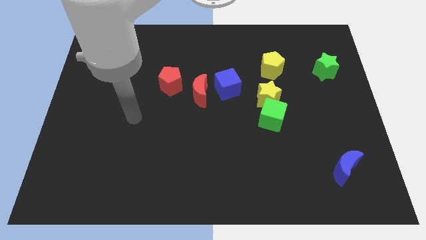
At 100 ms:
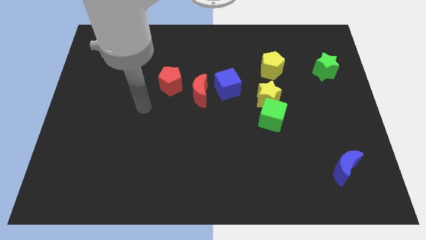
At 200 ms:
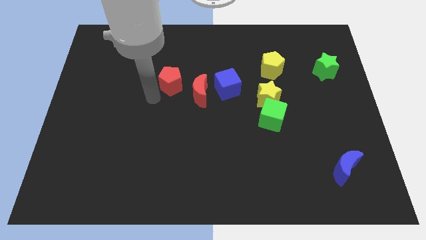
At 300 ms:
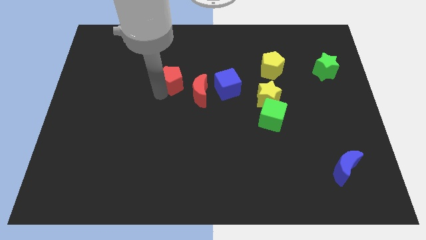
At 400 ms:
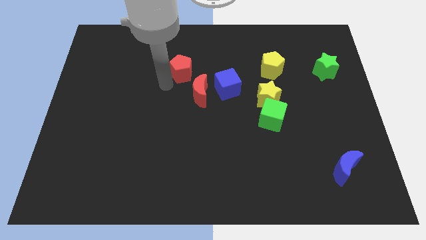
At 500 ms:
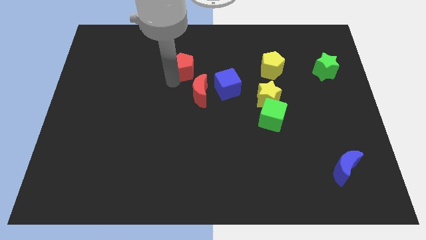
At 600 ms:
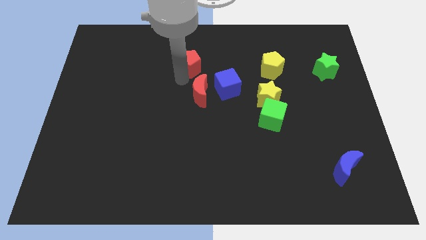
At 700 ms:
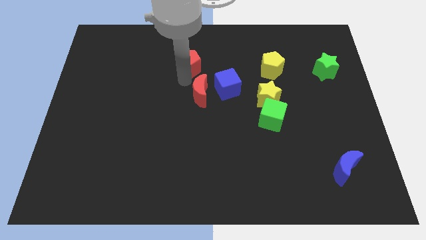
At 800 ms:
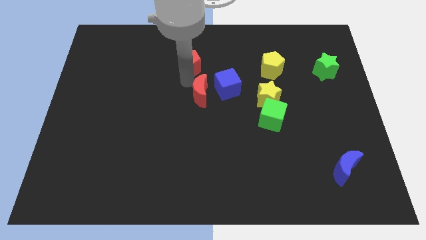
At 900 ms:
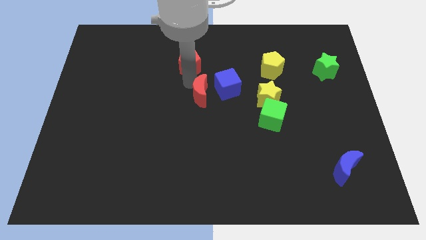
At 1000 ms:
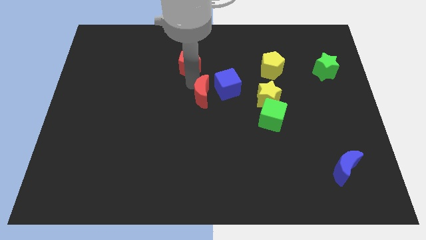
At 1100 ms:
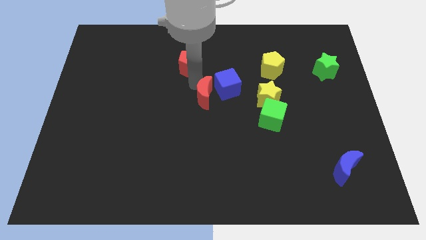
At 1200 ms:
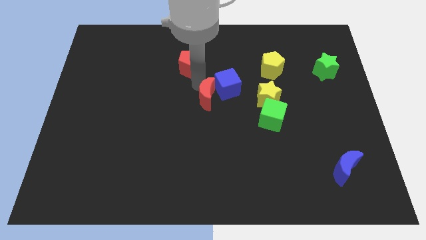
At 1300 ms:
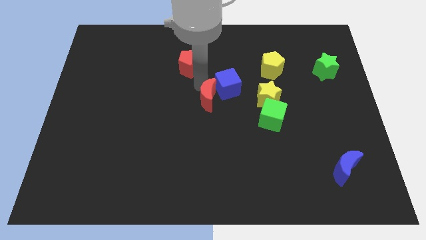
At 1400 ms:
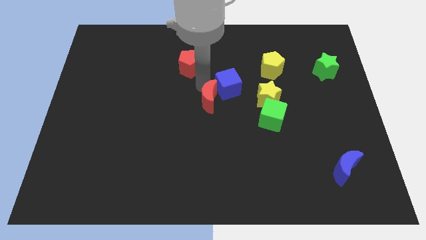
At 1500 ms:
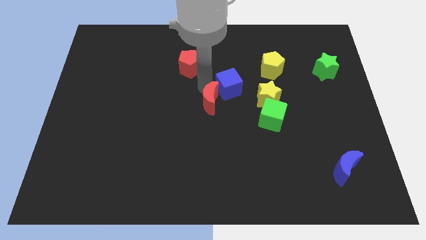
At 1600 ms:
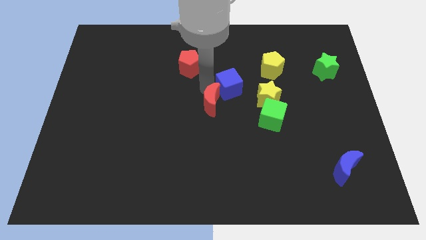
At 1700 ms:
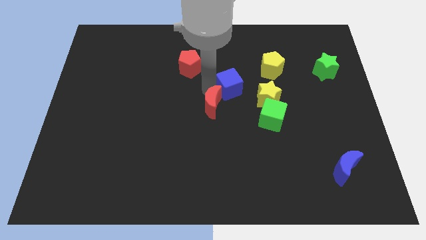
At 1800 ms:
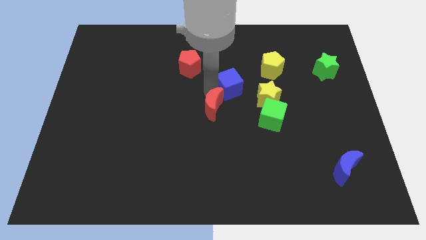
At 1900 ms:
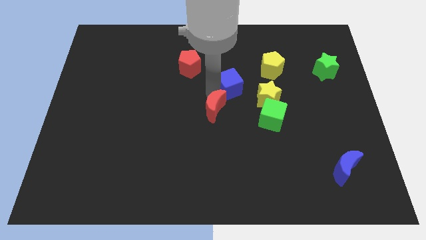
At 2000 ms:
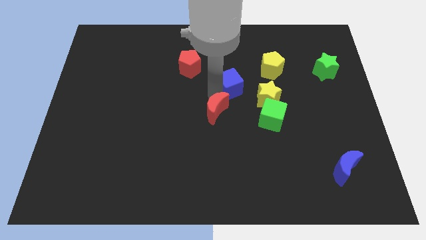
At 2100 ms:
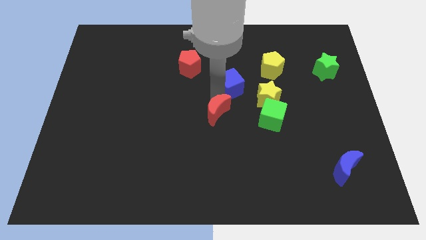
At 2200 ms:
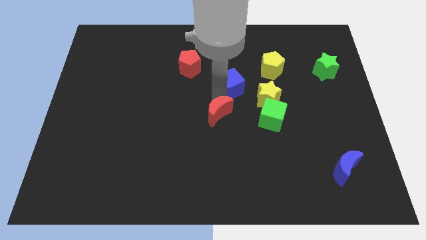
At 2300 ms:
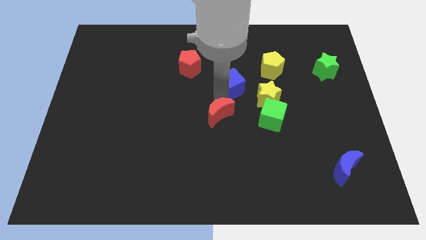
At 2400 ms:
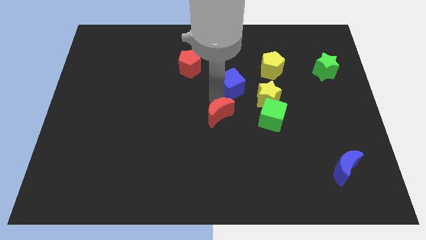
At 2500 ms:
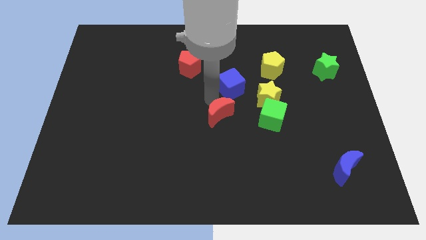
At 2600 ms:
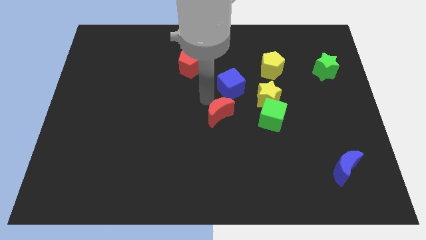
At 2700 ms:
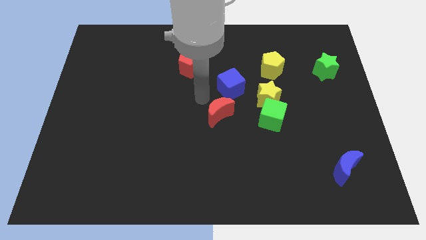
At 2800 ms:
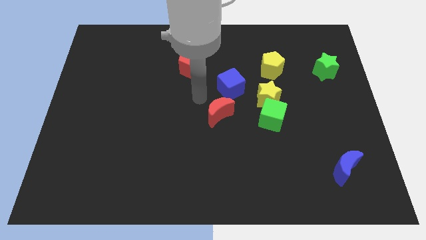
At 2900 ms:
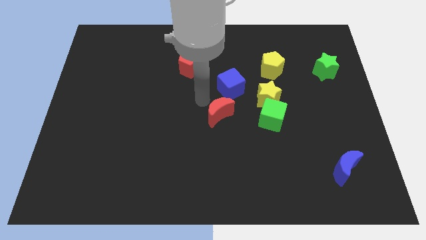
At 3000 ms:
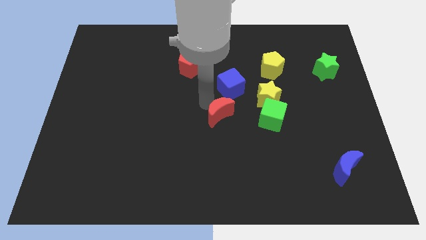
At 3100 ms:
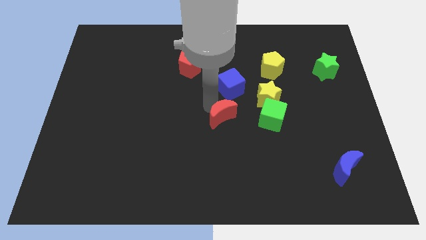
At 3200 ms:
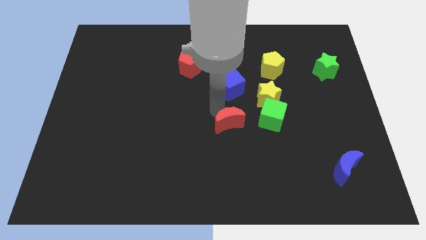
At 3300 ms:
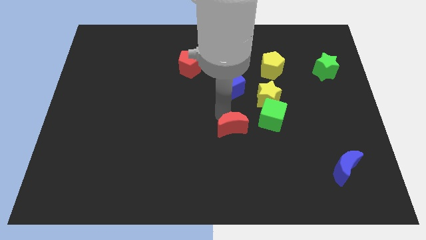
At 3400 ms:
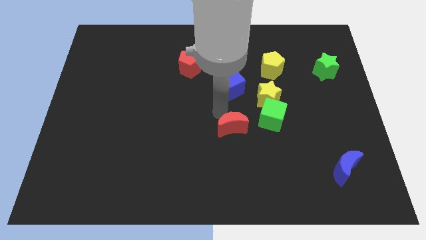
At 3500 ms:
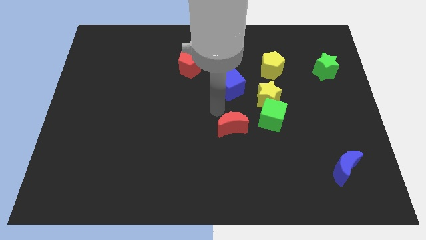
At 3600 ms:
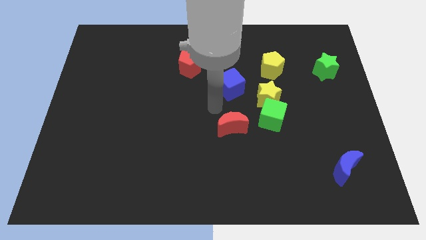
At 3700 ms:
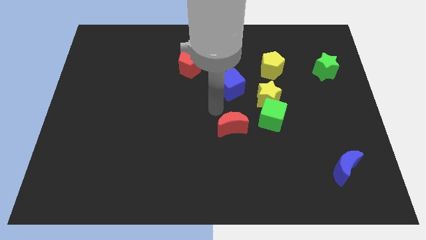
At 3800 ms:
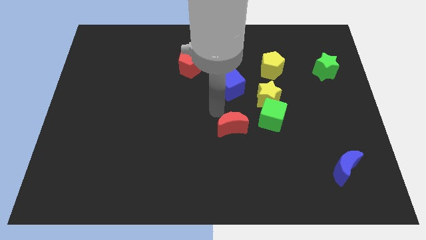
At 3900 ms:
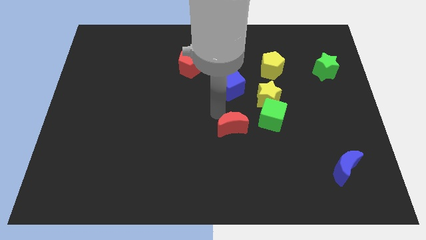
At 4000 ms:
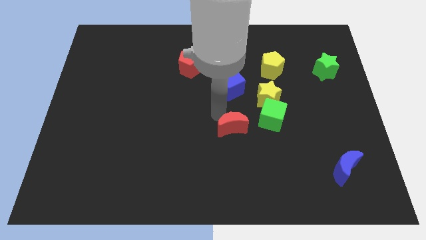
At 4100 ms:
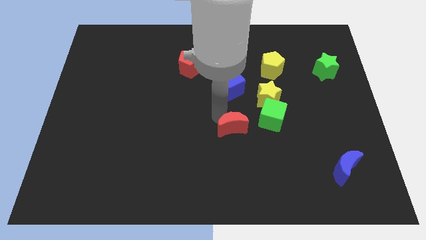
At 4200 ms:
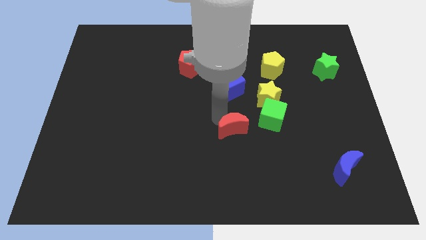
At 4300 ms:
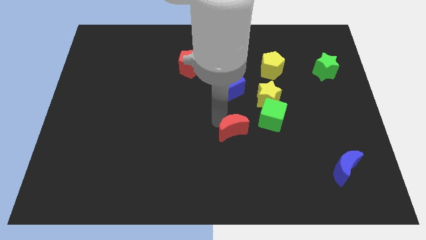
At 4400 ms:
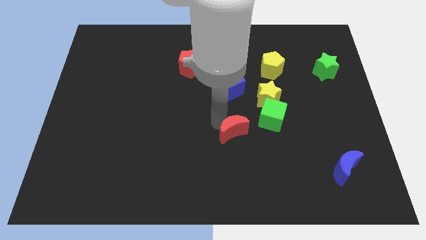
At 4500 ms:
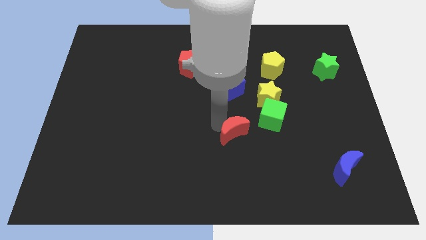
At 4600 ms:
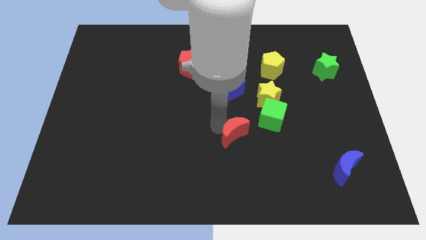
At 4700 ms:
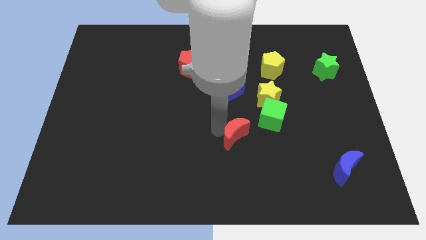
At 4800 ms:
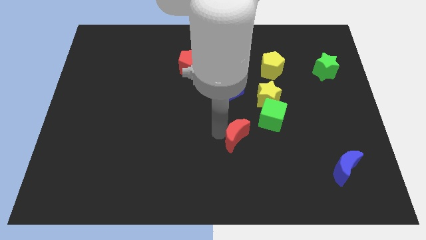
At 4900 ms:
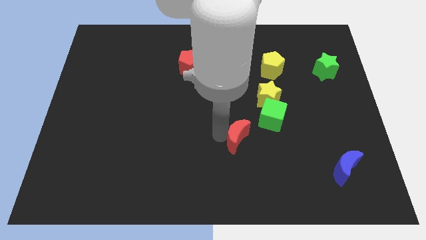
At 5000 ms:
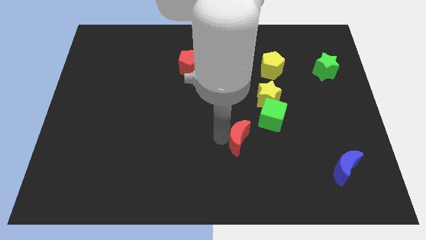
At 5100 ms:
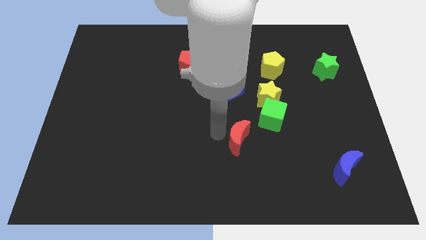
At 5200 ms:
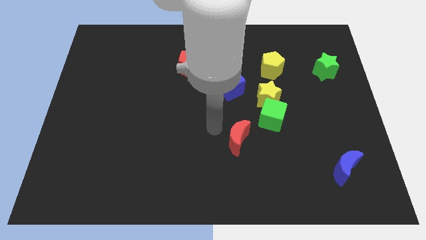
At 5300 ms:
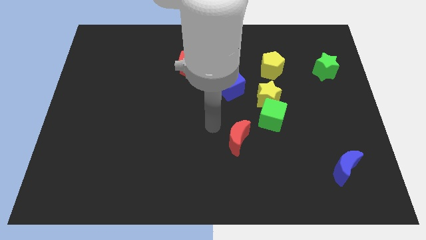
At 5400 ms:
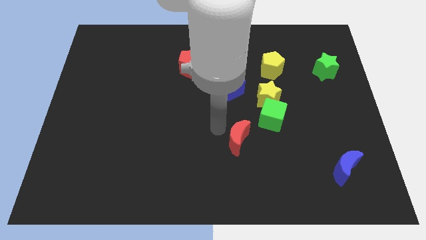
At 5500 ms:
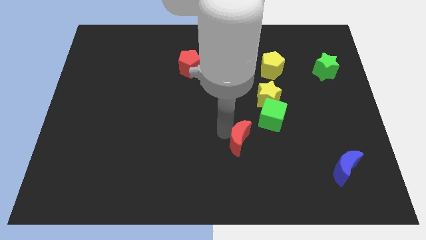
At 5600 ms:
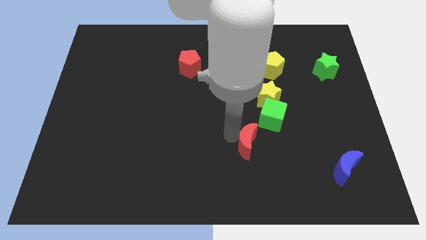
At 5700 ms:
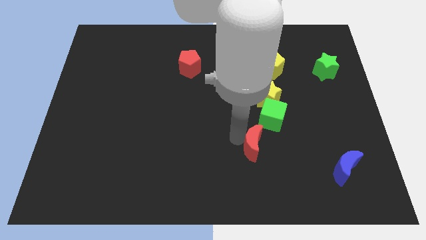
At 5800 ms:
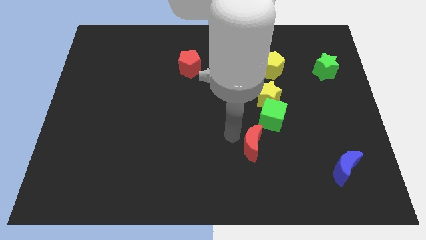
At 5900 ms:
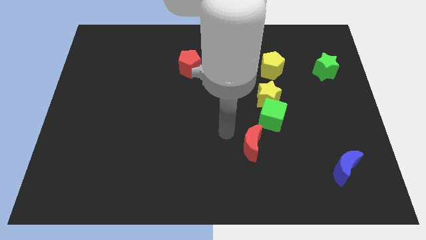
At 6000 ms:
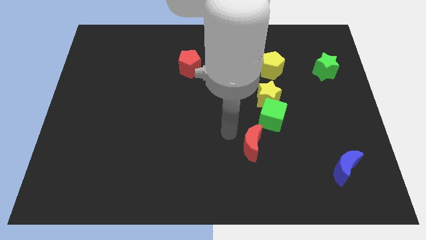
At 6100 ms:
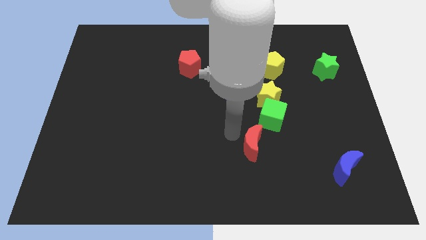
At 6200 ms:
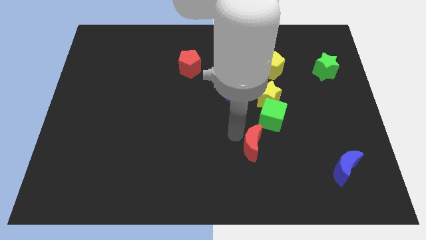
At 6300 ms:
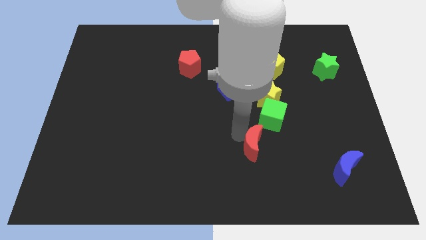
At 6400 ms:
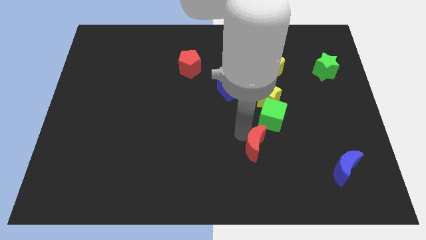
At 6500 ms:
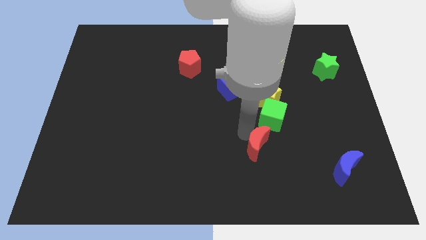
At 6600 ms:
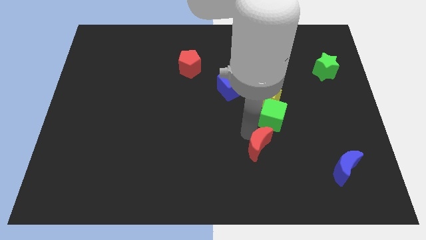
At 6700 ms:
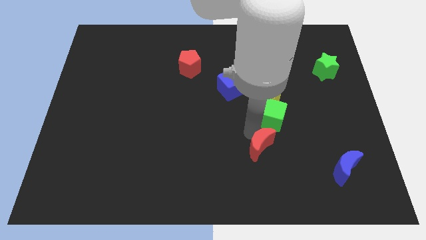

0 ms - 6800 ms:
slide the red moon diagonally down and right

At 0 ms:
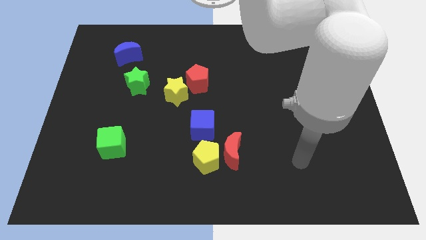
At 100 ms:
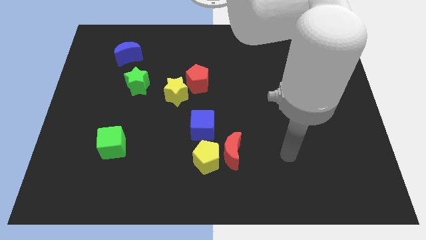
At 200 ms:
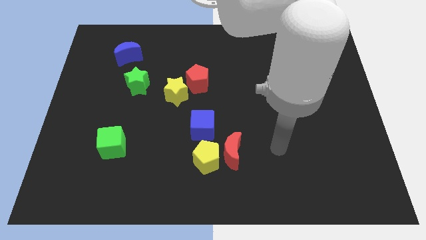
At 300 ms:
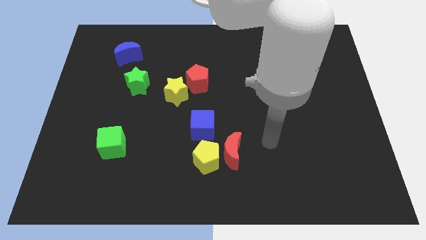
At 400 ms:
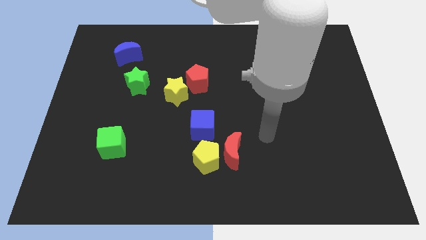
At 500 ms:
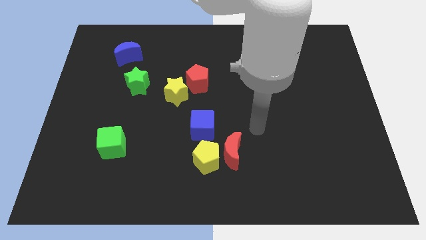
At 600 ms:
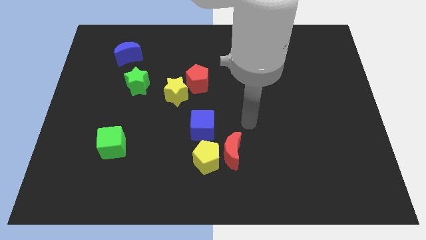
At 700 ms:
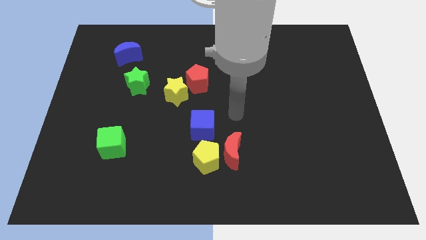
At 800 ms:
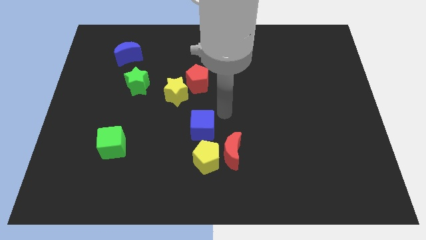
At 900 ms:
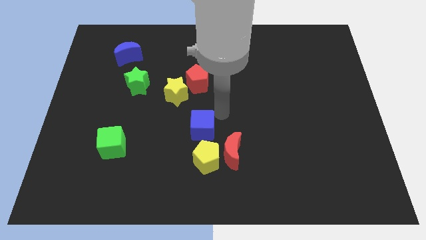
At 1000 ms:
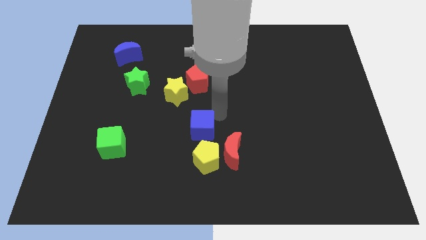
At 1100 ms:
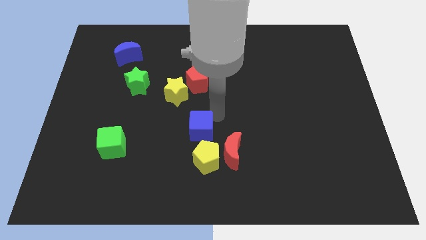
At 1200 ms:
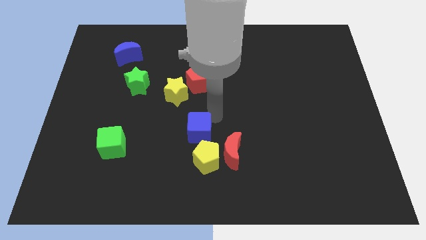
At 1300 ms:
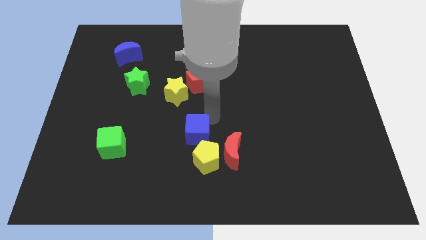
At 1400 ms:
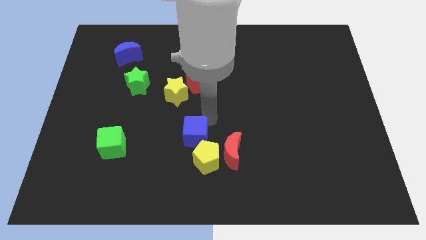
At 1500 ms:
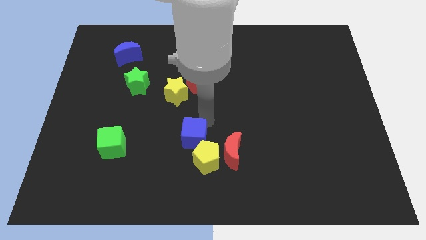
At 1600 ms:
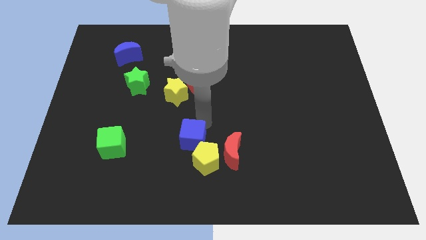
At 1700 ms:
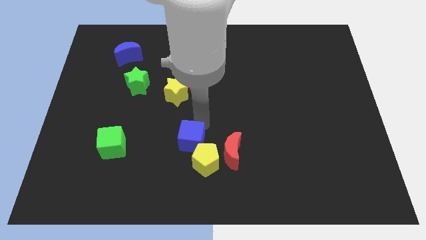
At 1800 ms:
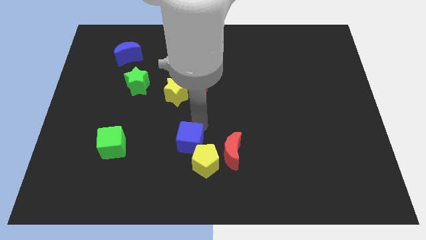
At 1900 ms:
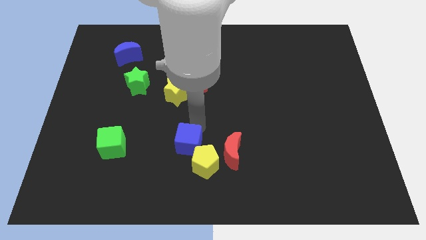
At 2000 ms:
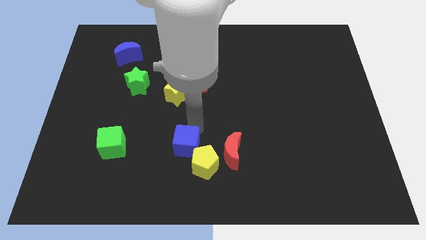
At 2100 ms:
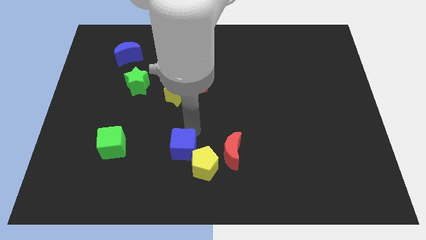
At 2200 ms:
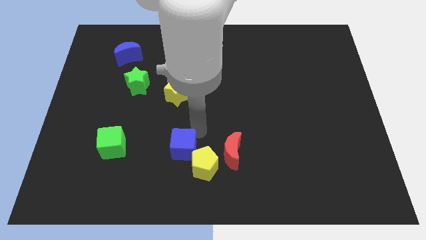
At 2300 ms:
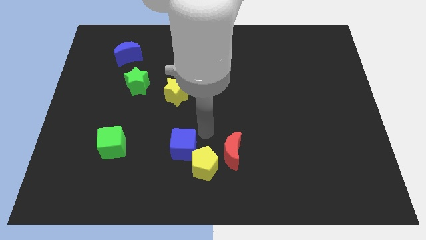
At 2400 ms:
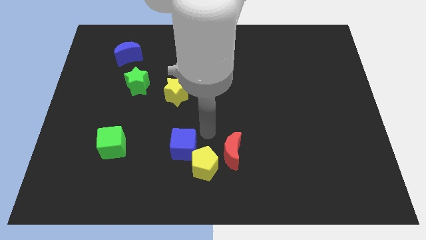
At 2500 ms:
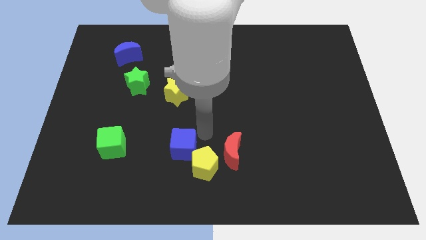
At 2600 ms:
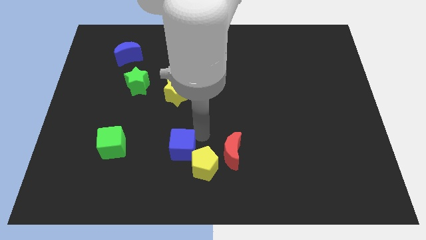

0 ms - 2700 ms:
move the blue cube downwards and left a little bit
